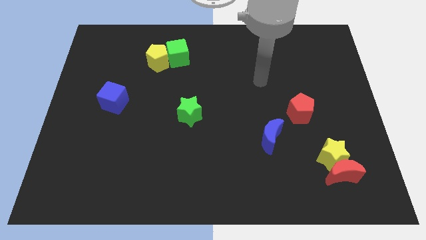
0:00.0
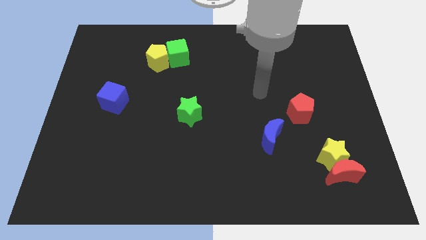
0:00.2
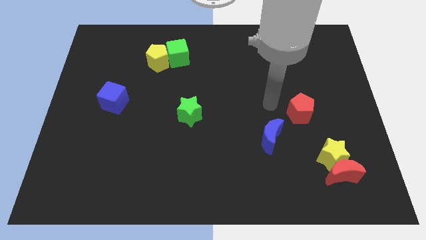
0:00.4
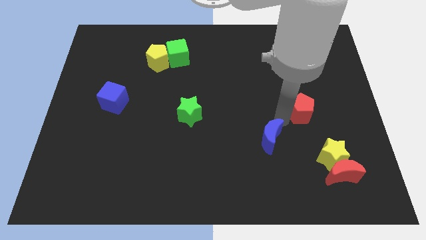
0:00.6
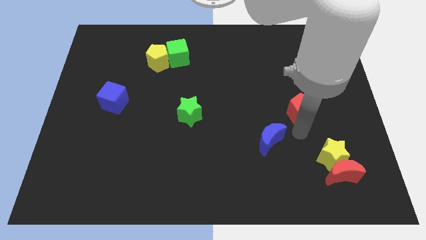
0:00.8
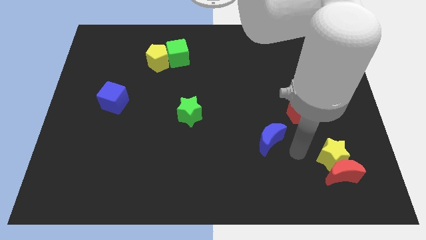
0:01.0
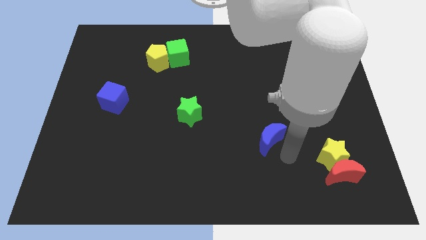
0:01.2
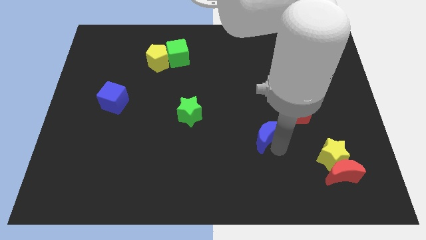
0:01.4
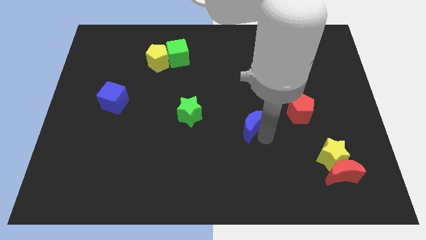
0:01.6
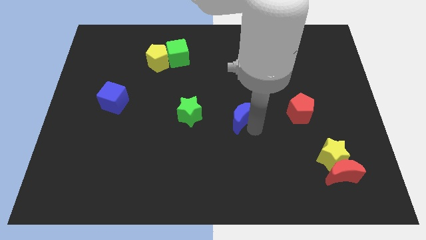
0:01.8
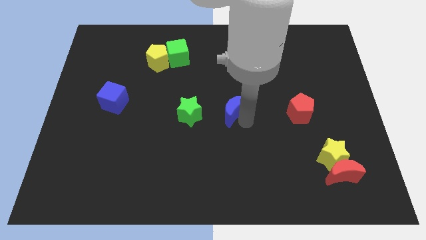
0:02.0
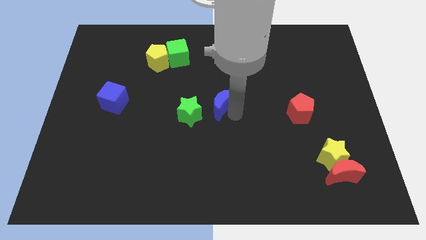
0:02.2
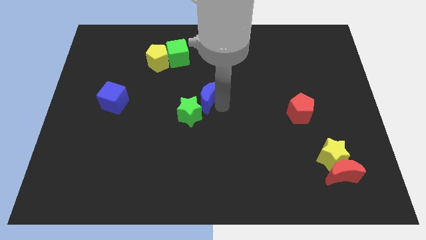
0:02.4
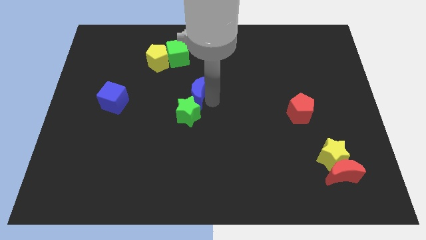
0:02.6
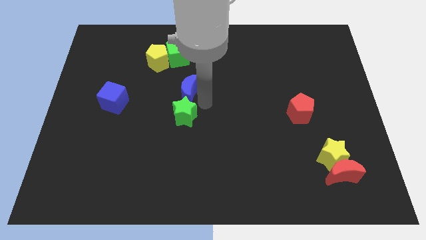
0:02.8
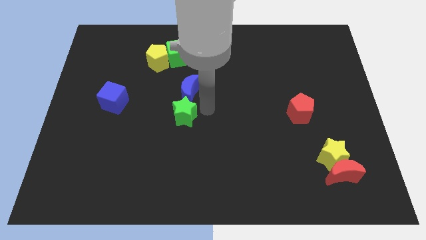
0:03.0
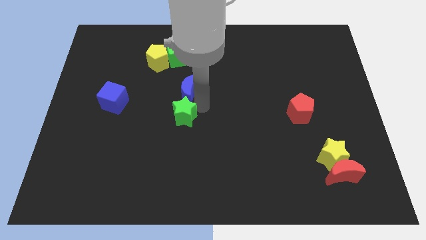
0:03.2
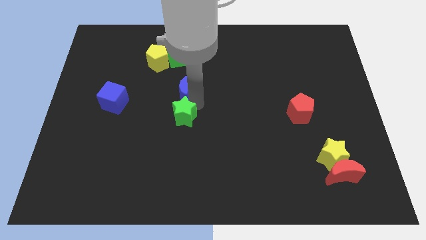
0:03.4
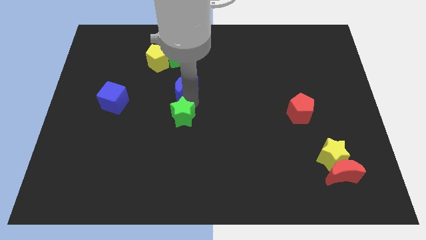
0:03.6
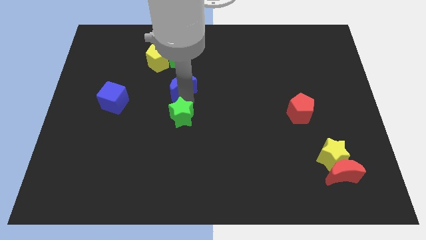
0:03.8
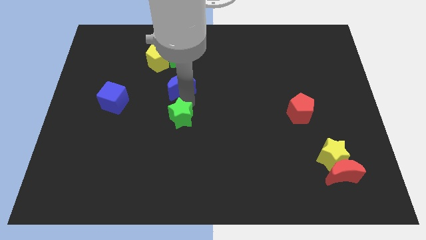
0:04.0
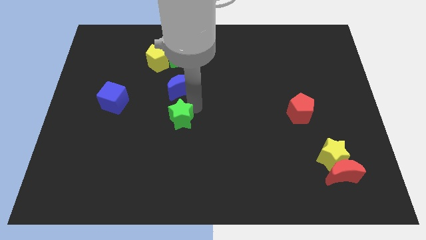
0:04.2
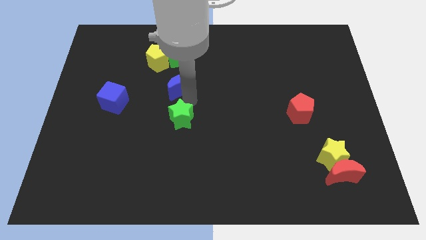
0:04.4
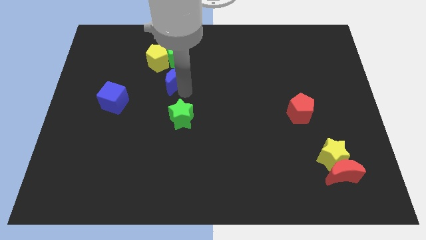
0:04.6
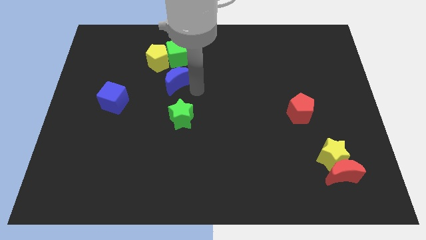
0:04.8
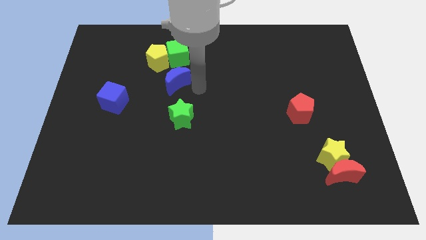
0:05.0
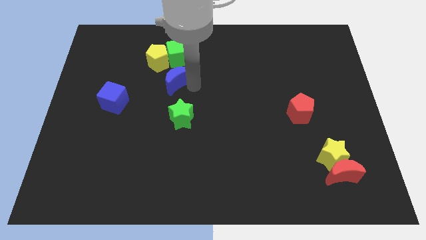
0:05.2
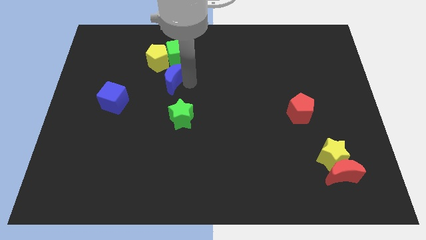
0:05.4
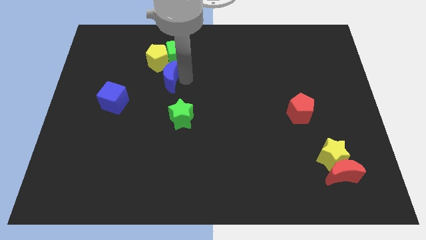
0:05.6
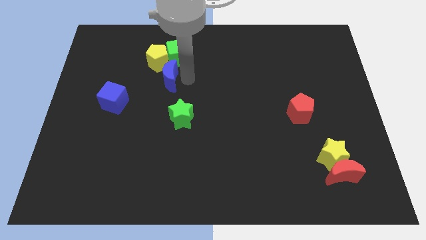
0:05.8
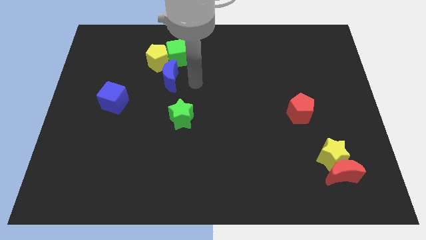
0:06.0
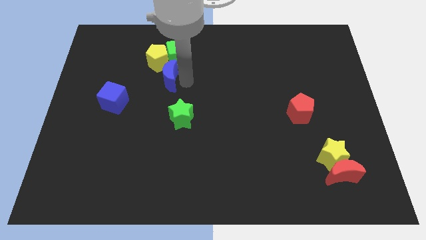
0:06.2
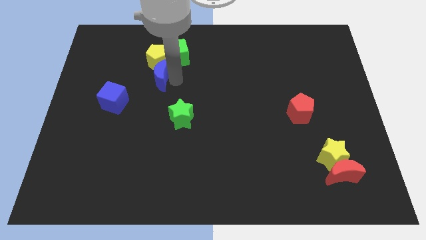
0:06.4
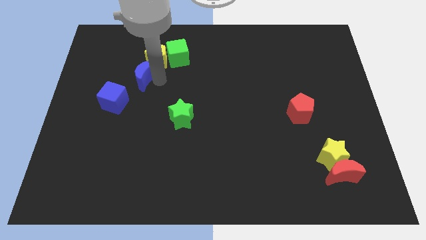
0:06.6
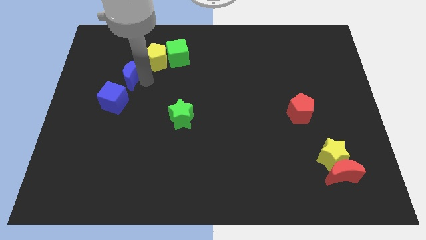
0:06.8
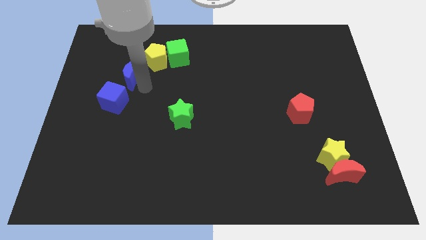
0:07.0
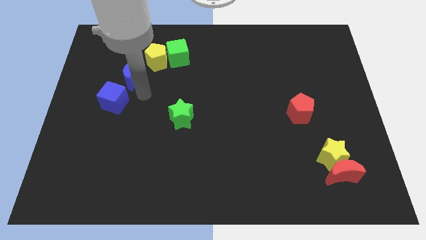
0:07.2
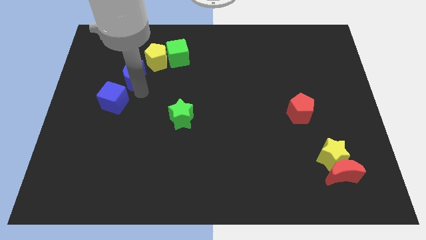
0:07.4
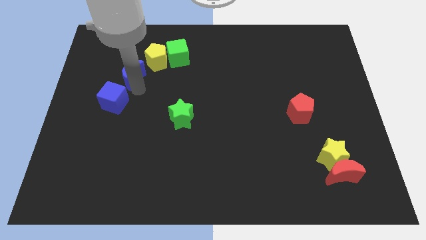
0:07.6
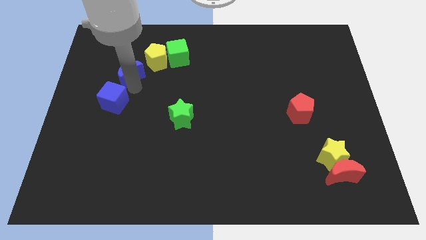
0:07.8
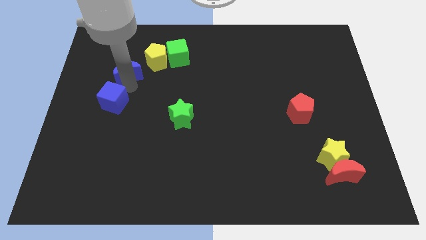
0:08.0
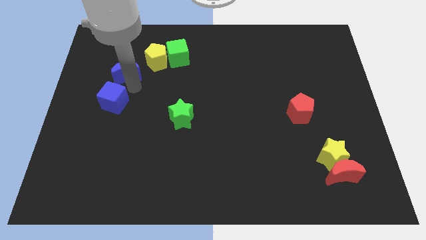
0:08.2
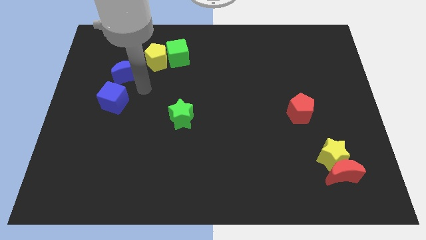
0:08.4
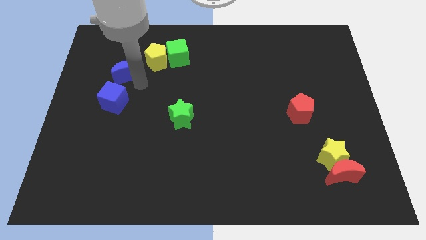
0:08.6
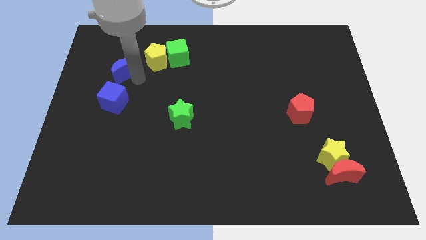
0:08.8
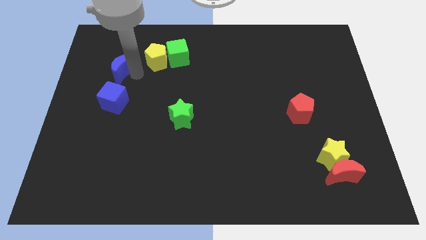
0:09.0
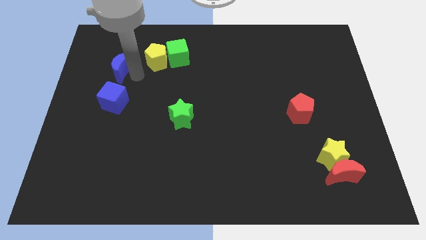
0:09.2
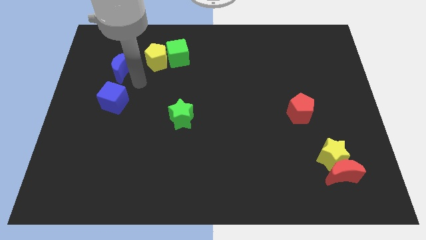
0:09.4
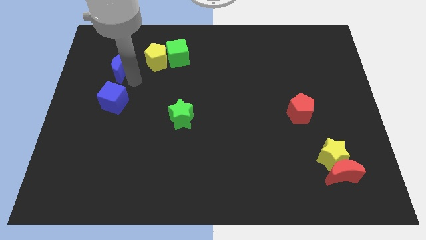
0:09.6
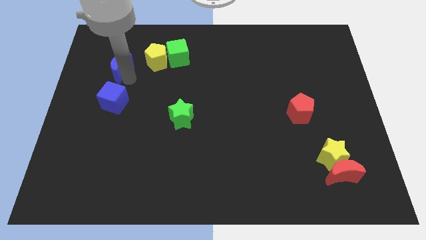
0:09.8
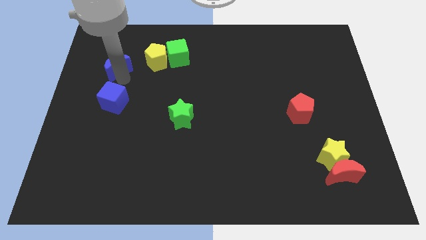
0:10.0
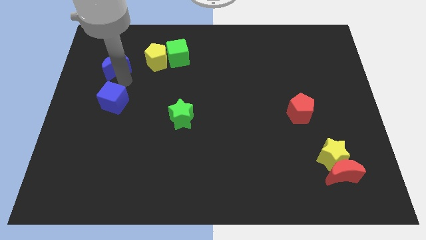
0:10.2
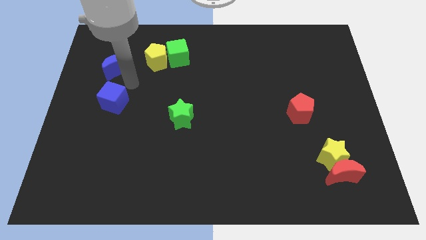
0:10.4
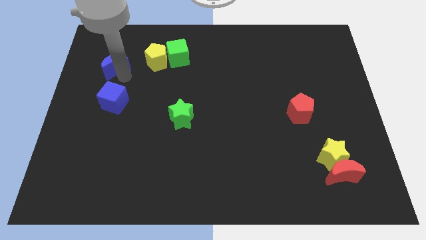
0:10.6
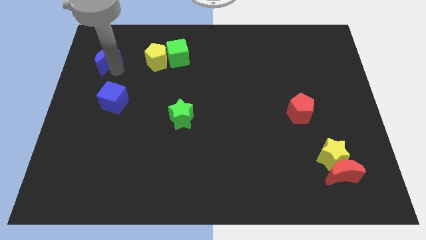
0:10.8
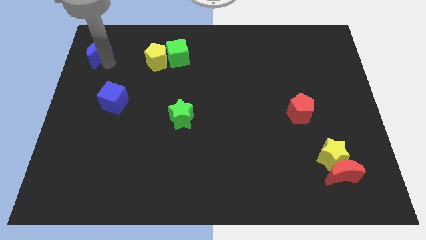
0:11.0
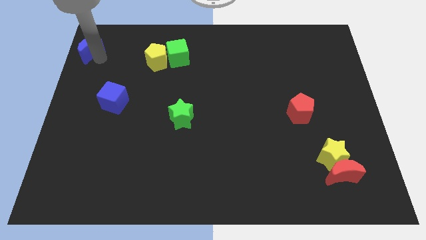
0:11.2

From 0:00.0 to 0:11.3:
push the blue moon to the upper left corner

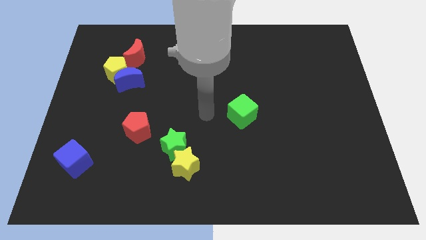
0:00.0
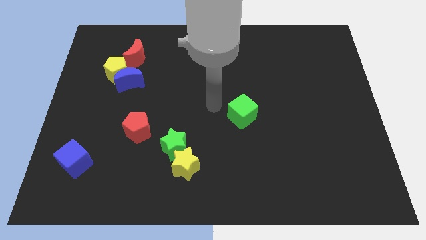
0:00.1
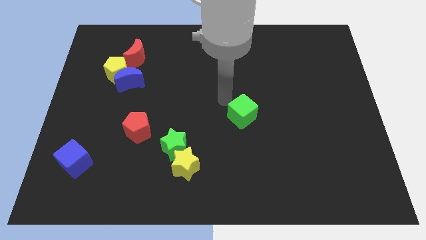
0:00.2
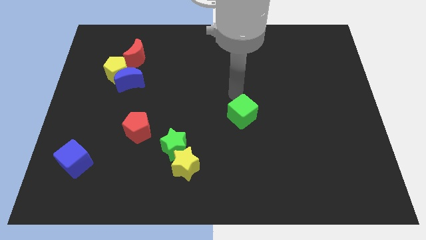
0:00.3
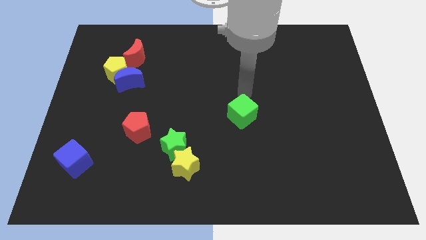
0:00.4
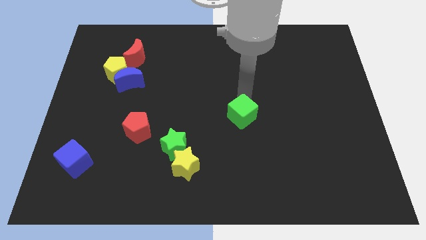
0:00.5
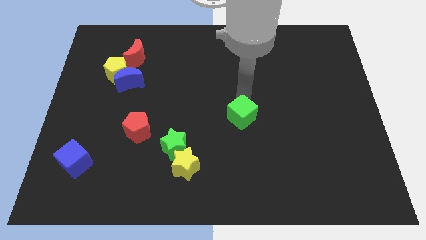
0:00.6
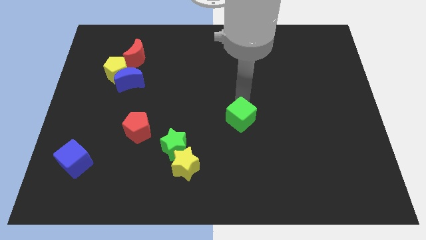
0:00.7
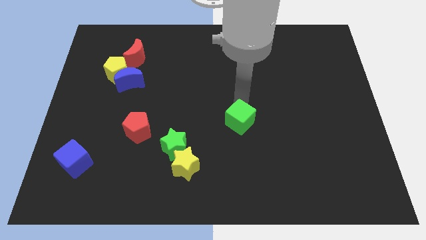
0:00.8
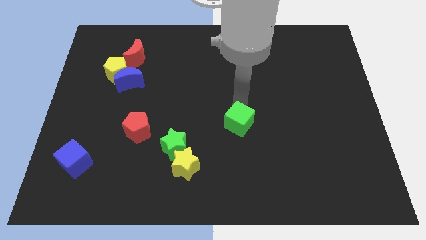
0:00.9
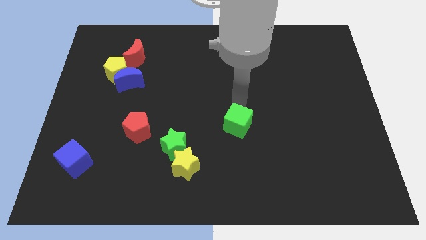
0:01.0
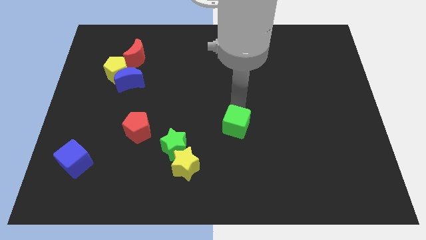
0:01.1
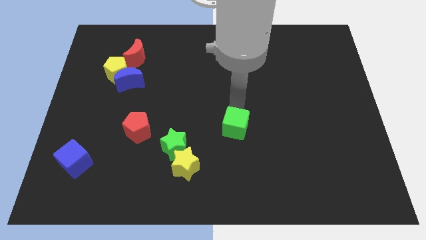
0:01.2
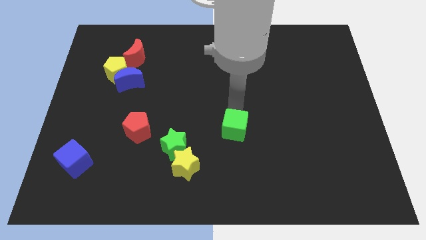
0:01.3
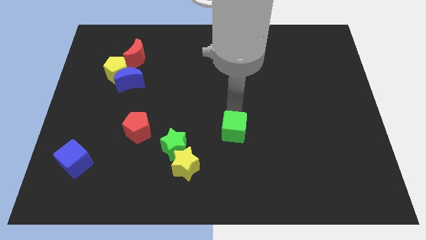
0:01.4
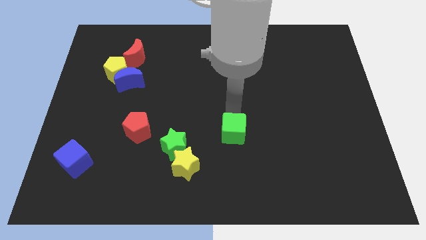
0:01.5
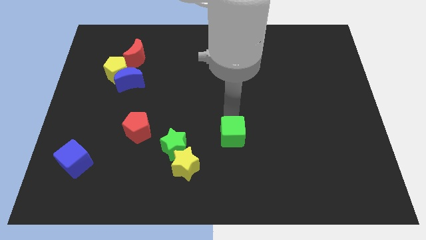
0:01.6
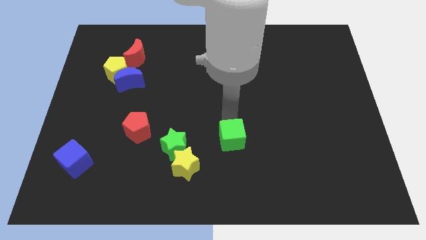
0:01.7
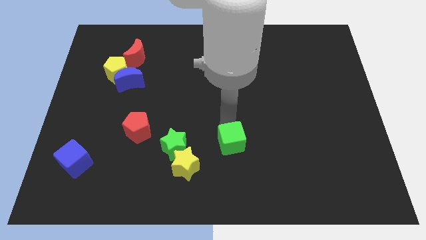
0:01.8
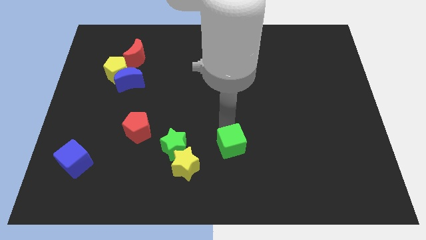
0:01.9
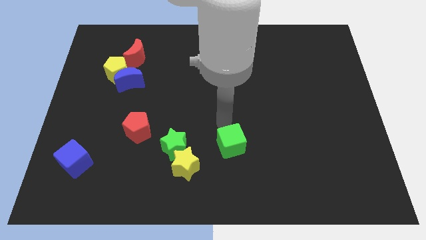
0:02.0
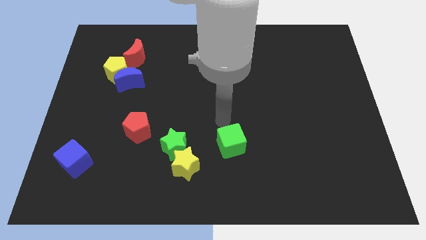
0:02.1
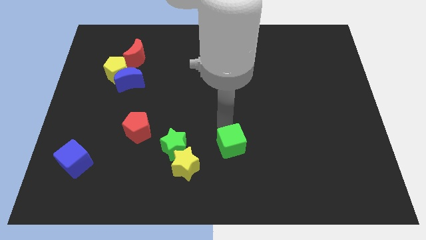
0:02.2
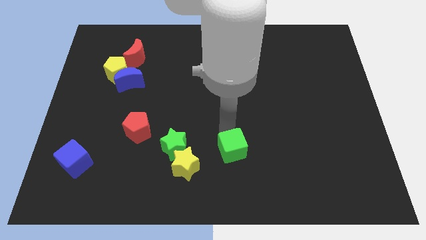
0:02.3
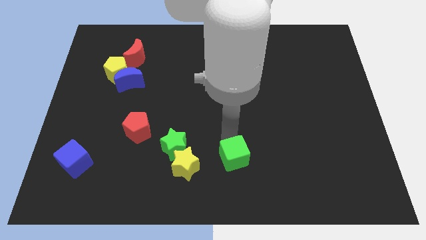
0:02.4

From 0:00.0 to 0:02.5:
push the green cube to the bottom
